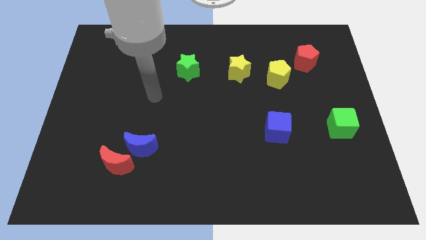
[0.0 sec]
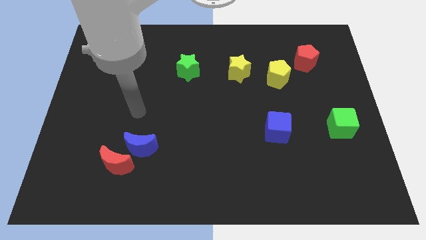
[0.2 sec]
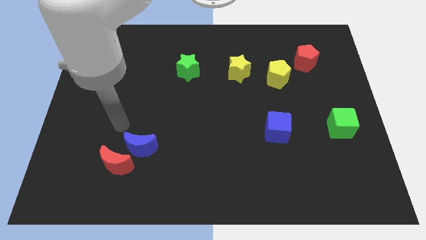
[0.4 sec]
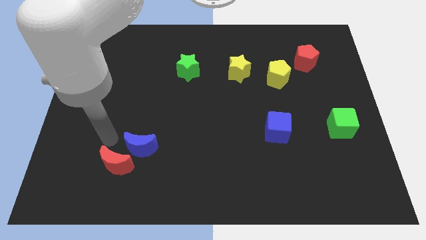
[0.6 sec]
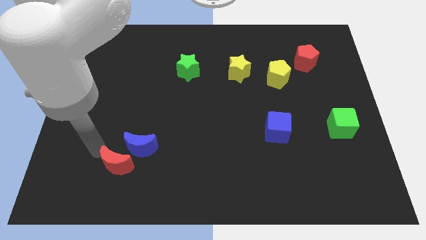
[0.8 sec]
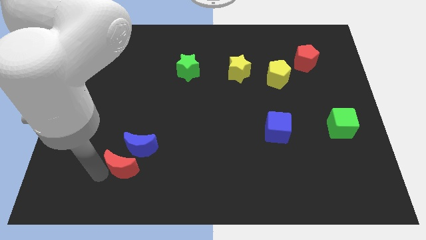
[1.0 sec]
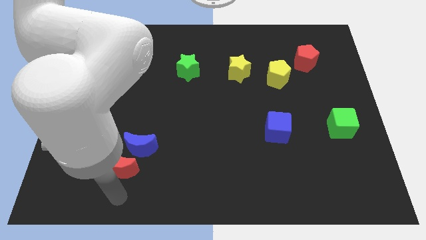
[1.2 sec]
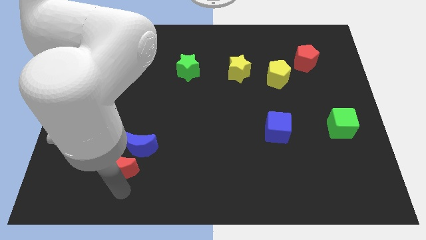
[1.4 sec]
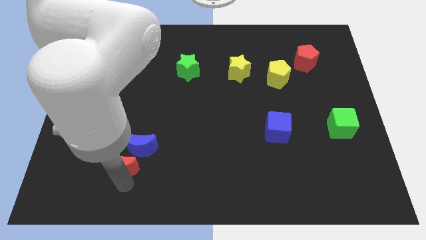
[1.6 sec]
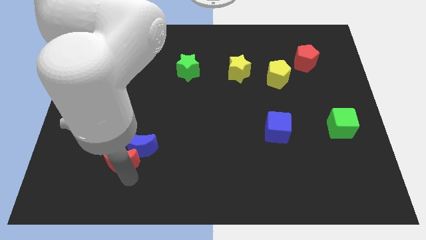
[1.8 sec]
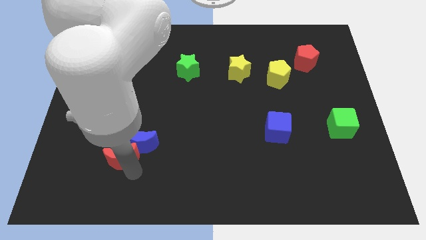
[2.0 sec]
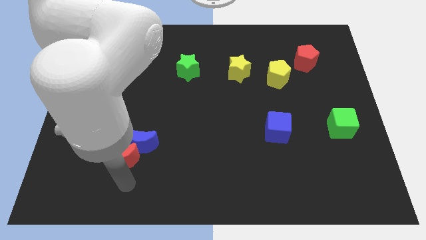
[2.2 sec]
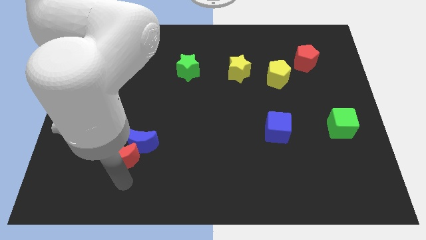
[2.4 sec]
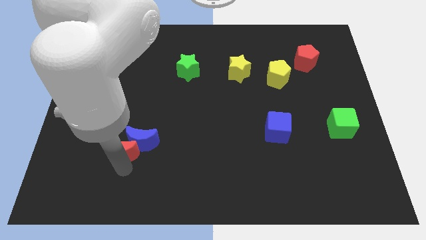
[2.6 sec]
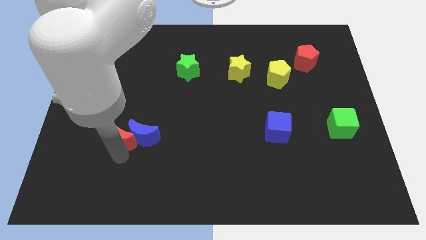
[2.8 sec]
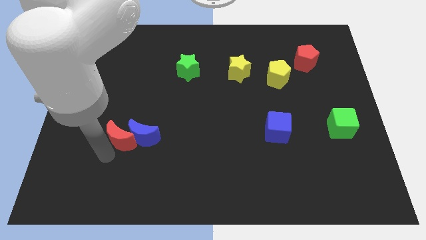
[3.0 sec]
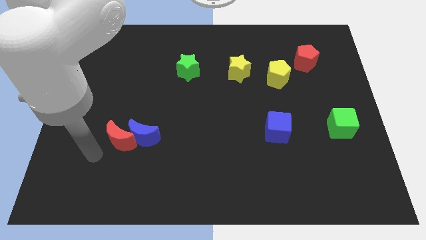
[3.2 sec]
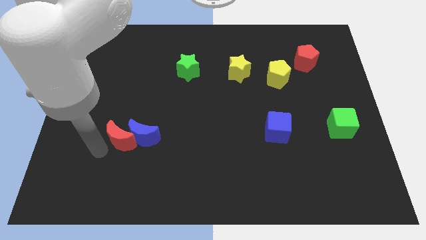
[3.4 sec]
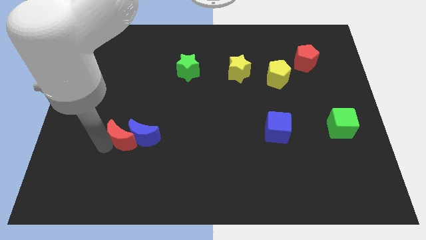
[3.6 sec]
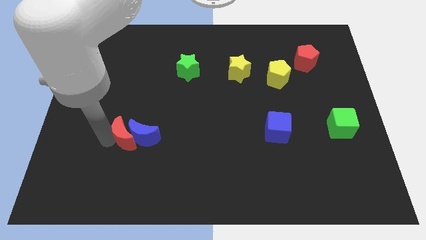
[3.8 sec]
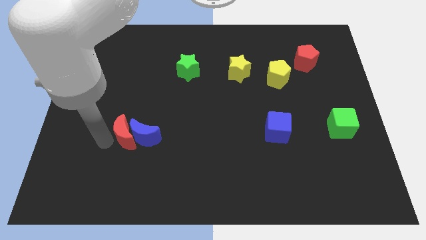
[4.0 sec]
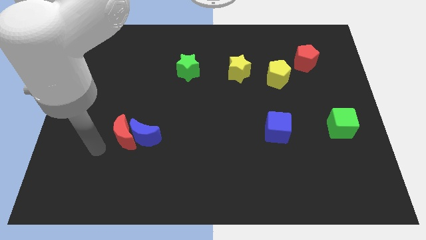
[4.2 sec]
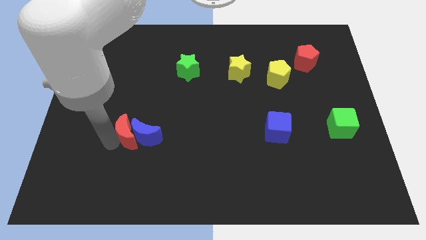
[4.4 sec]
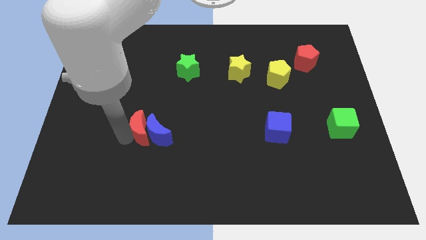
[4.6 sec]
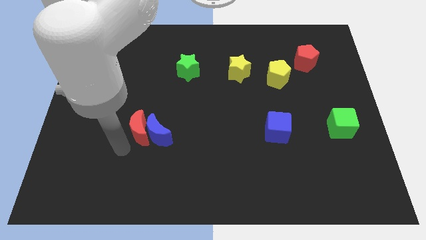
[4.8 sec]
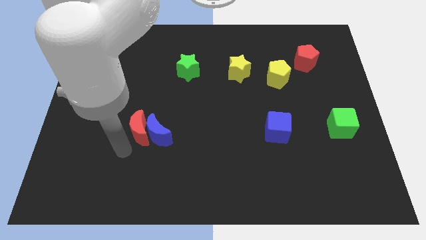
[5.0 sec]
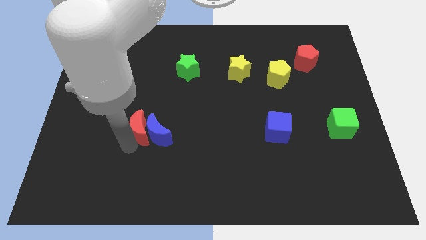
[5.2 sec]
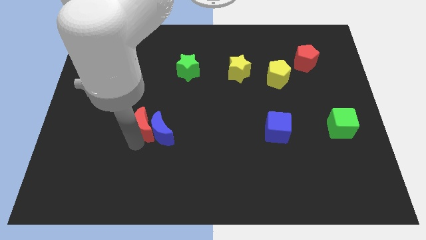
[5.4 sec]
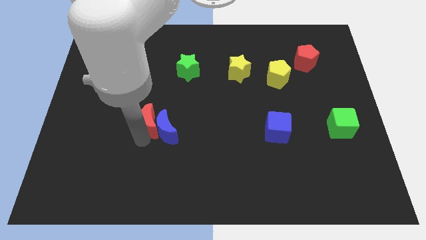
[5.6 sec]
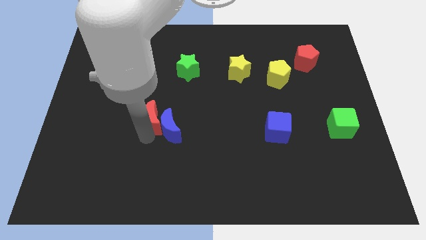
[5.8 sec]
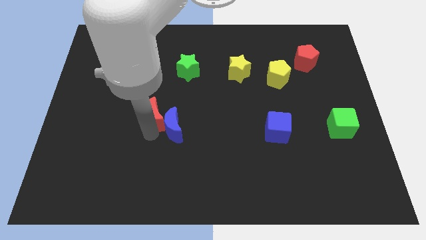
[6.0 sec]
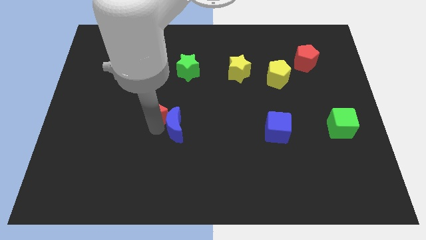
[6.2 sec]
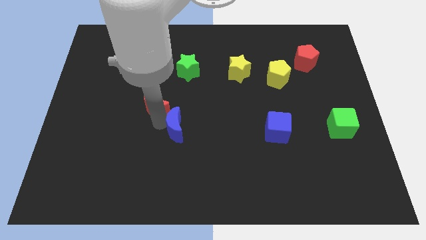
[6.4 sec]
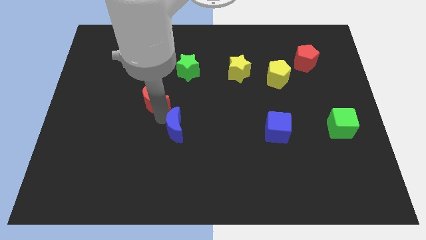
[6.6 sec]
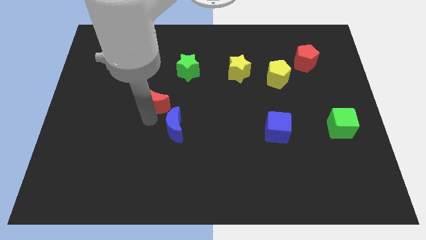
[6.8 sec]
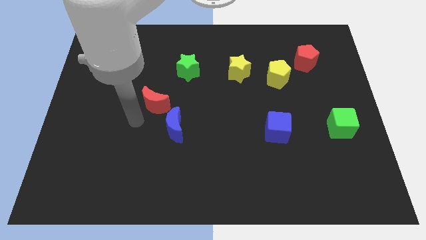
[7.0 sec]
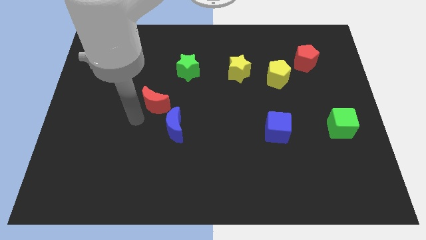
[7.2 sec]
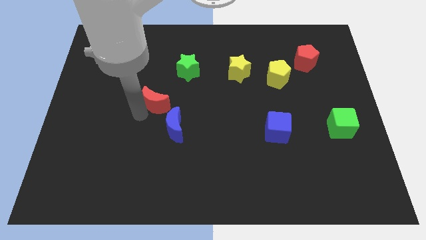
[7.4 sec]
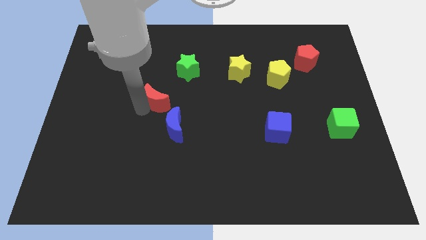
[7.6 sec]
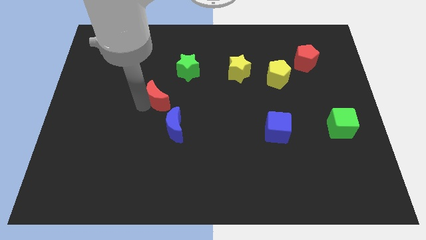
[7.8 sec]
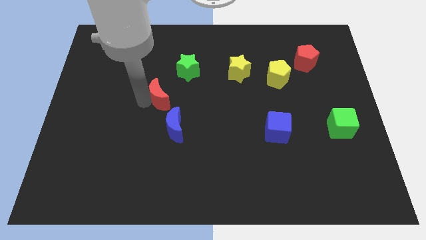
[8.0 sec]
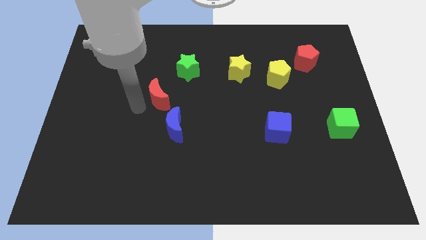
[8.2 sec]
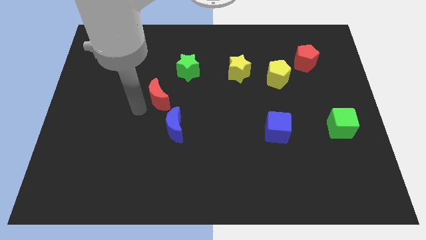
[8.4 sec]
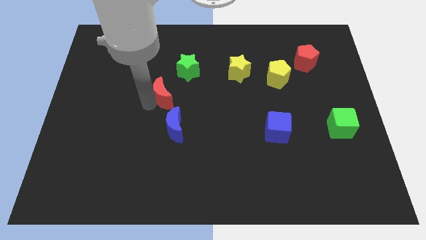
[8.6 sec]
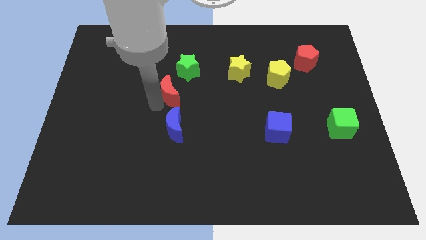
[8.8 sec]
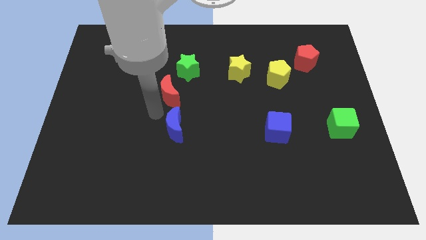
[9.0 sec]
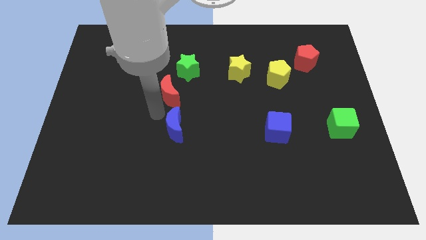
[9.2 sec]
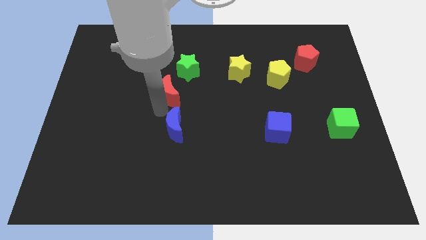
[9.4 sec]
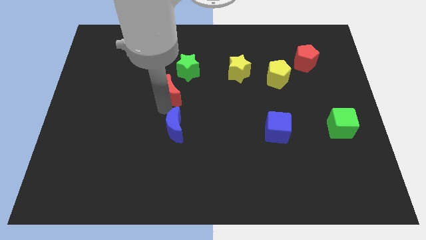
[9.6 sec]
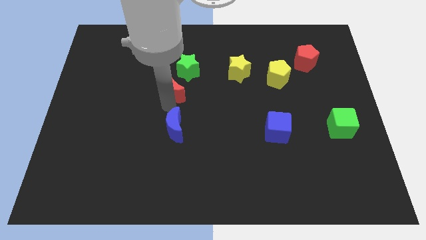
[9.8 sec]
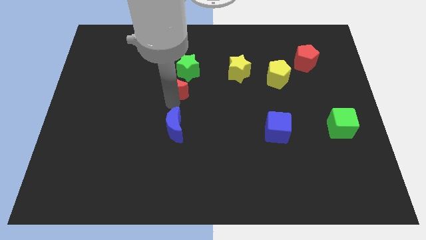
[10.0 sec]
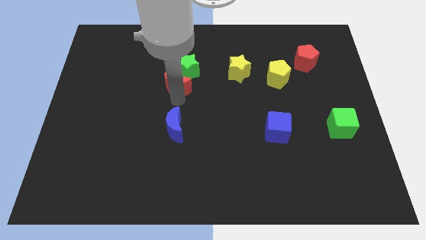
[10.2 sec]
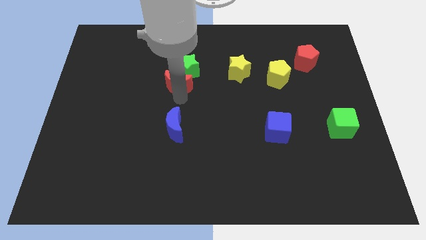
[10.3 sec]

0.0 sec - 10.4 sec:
move the red moon towards the green star

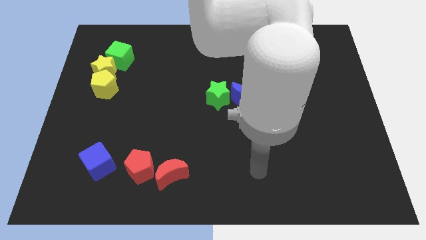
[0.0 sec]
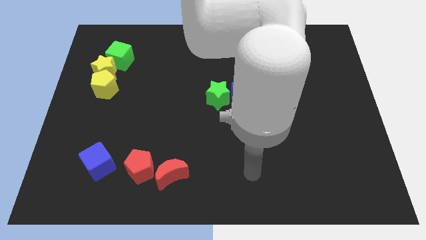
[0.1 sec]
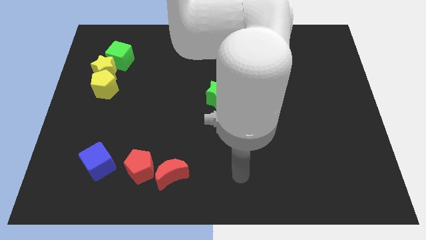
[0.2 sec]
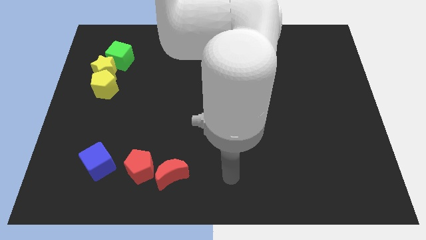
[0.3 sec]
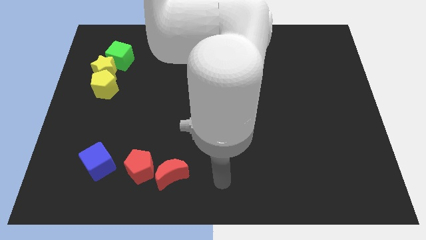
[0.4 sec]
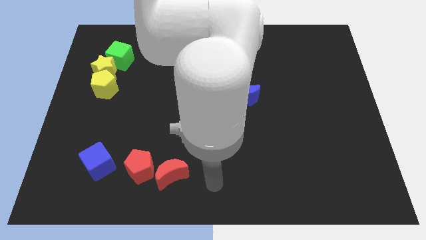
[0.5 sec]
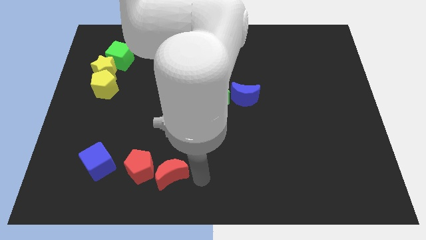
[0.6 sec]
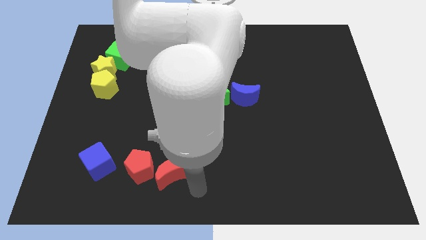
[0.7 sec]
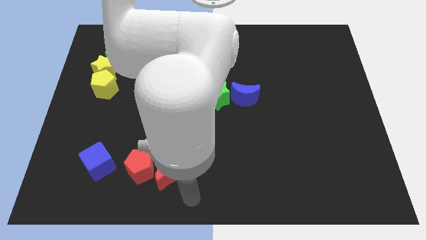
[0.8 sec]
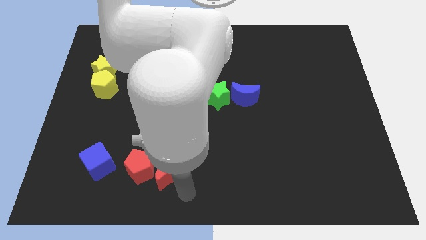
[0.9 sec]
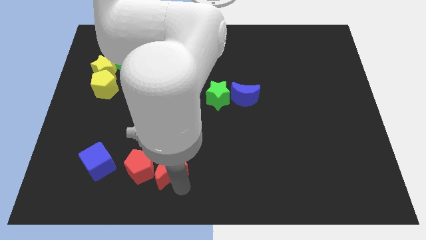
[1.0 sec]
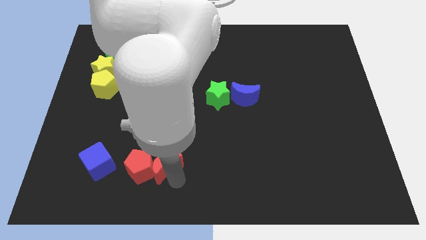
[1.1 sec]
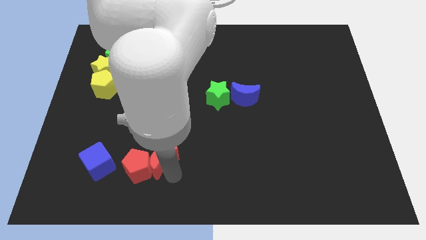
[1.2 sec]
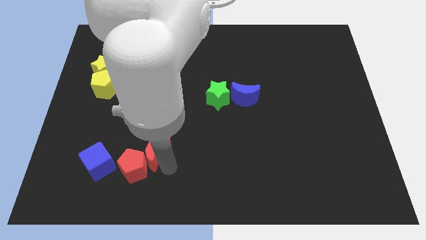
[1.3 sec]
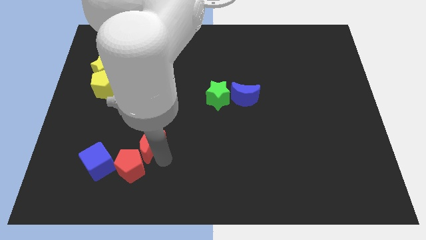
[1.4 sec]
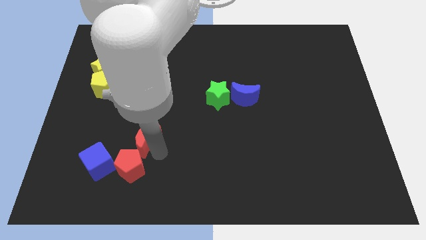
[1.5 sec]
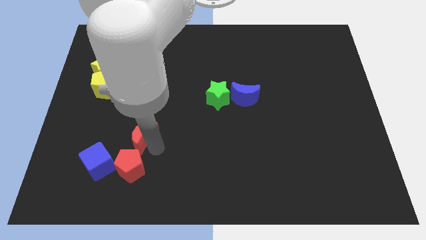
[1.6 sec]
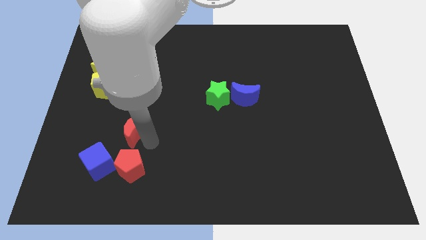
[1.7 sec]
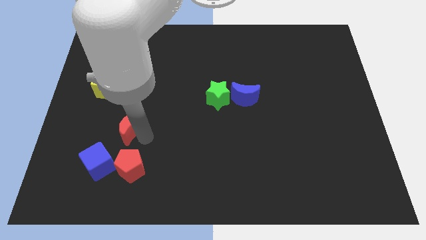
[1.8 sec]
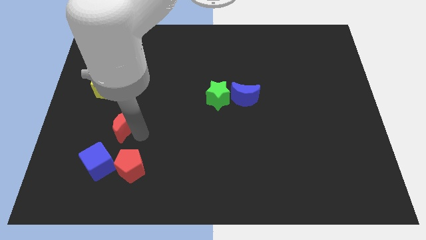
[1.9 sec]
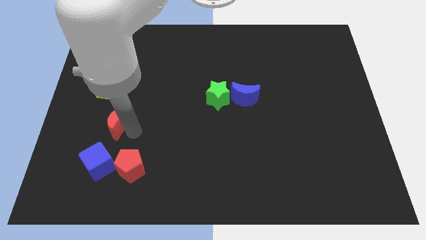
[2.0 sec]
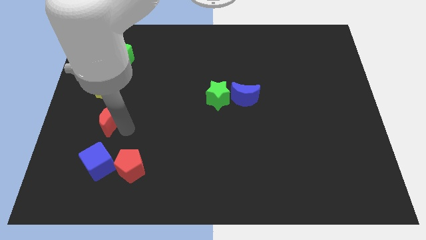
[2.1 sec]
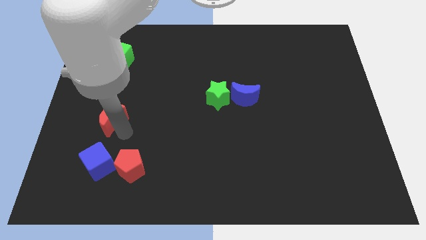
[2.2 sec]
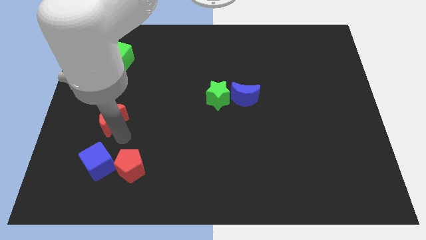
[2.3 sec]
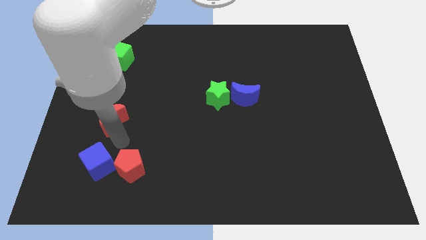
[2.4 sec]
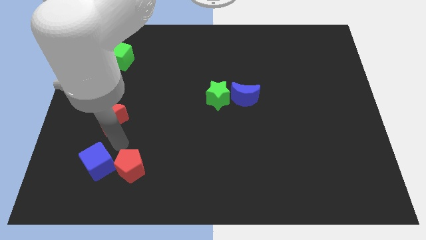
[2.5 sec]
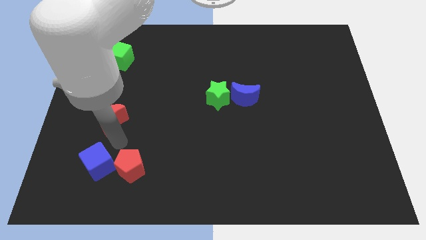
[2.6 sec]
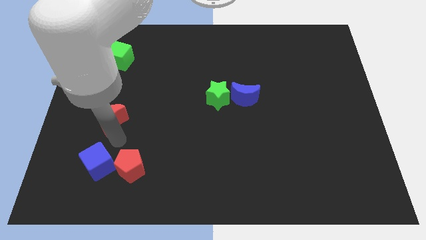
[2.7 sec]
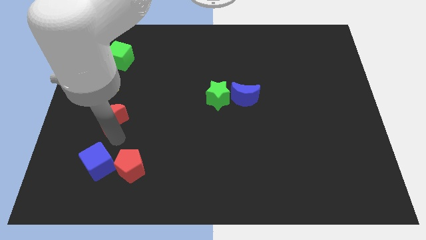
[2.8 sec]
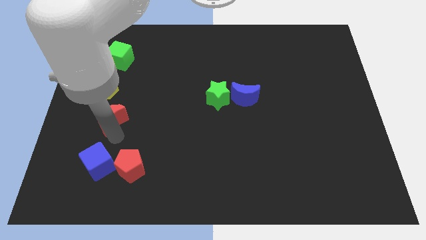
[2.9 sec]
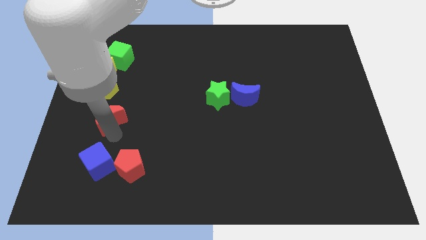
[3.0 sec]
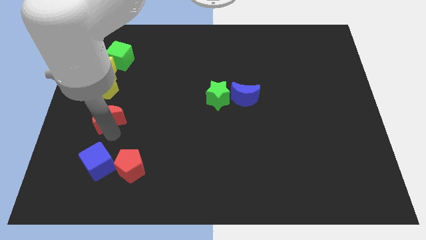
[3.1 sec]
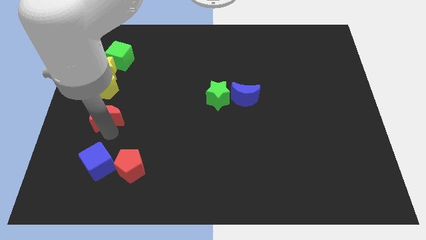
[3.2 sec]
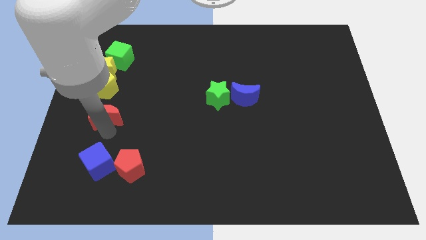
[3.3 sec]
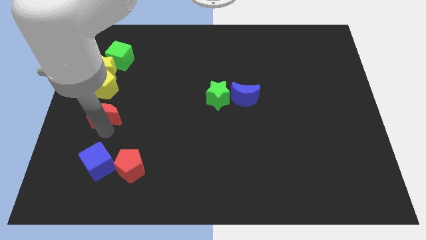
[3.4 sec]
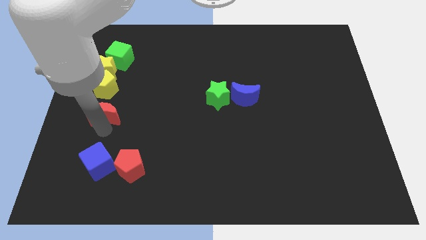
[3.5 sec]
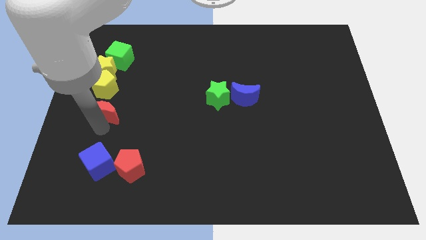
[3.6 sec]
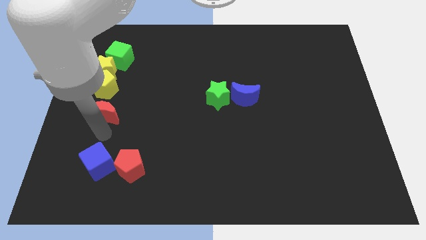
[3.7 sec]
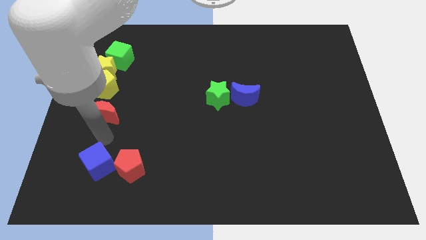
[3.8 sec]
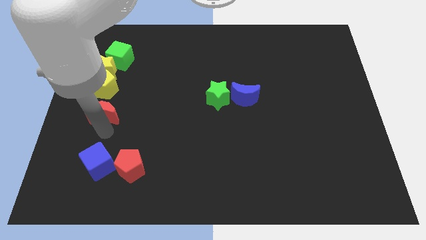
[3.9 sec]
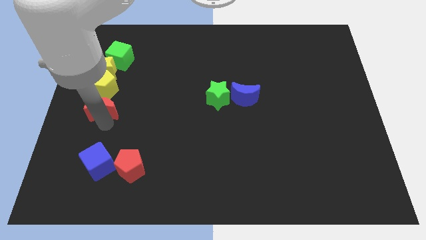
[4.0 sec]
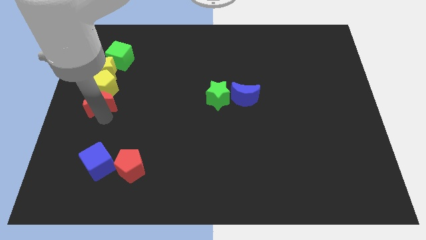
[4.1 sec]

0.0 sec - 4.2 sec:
put the red moon close to the yellow pentagon
